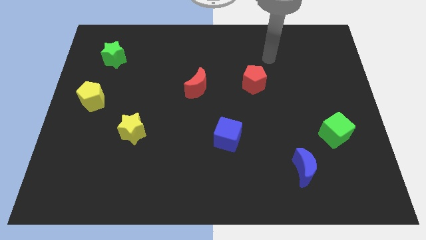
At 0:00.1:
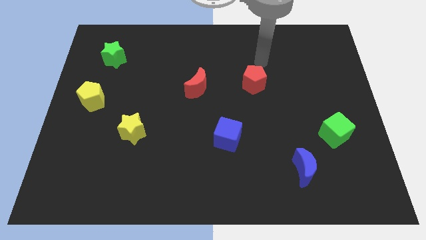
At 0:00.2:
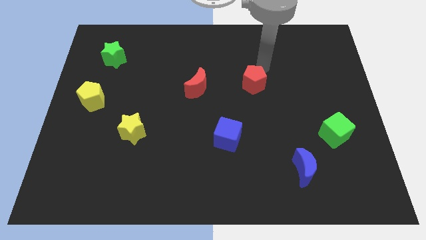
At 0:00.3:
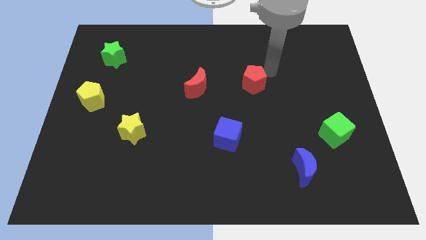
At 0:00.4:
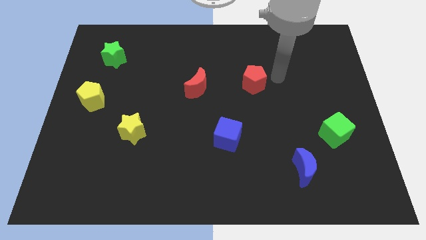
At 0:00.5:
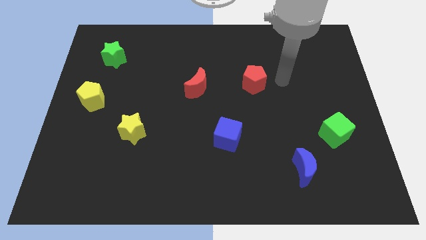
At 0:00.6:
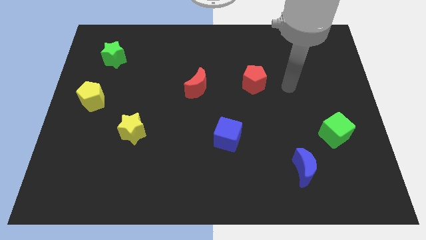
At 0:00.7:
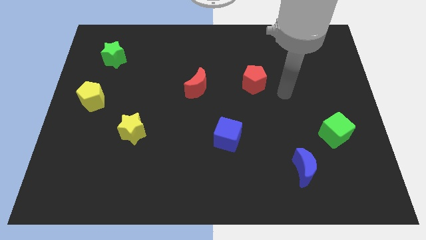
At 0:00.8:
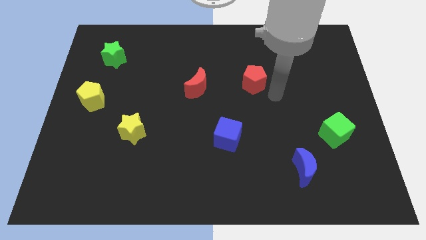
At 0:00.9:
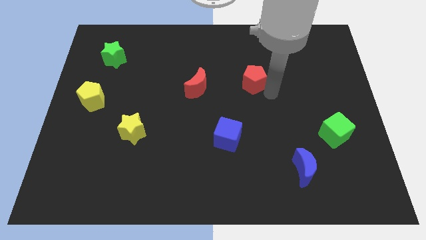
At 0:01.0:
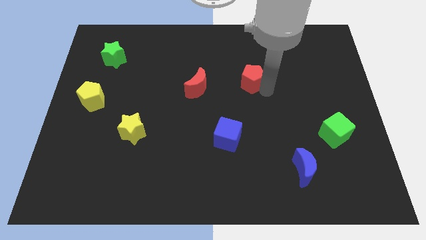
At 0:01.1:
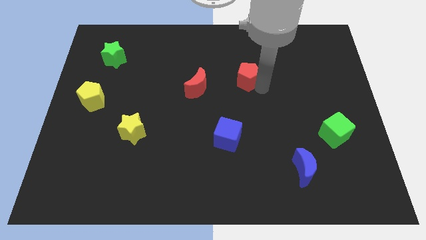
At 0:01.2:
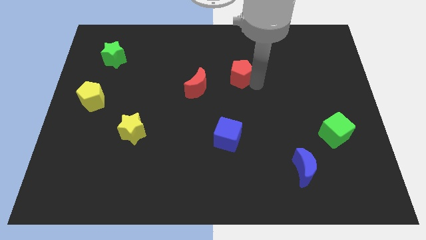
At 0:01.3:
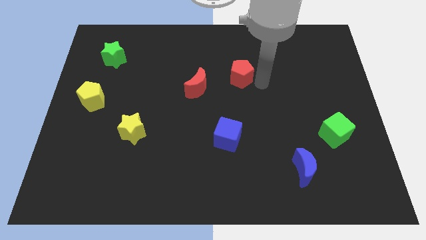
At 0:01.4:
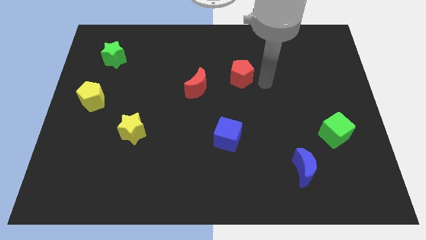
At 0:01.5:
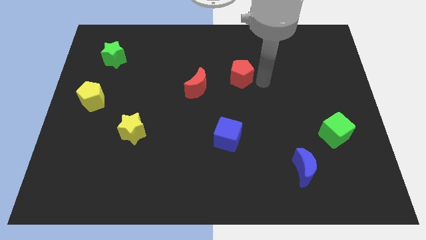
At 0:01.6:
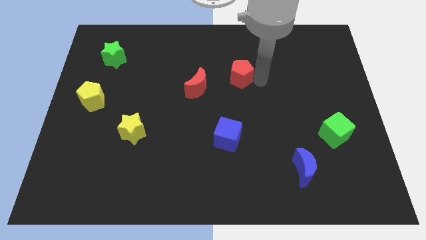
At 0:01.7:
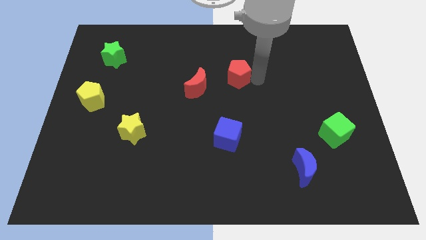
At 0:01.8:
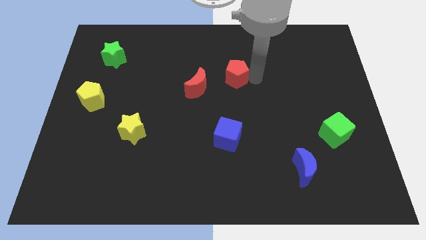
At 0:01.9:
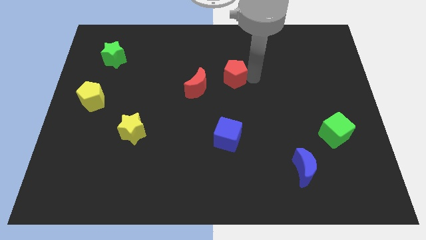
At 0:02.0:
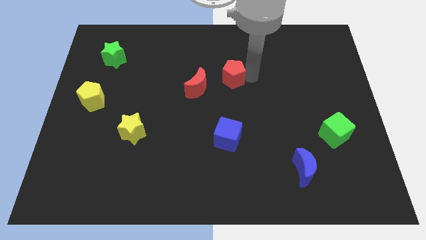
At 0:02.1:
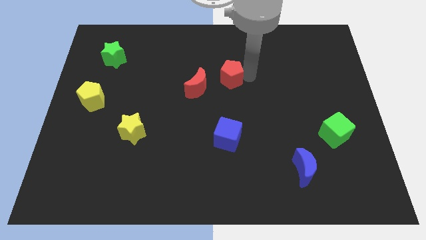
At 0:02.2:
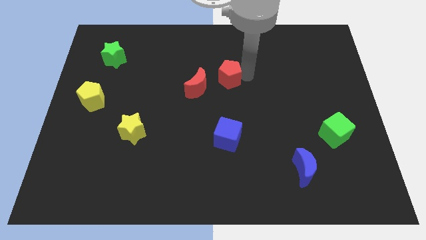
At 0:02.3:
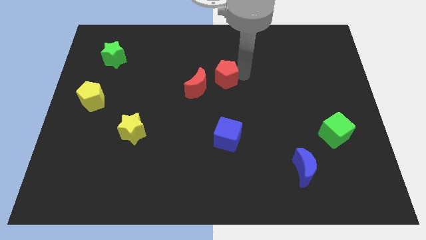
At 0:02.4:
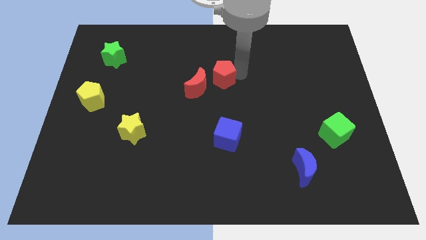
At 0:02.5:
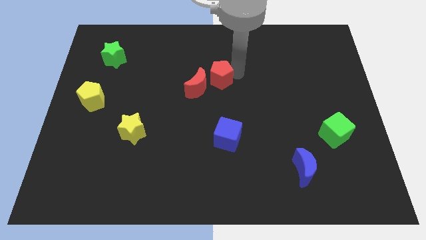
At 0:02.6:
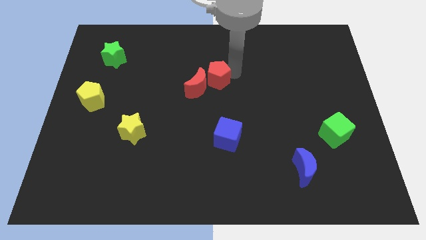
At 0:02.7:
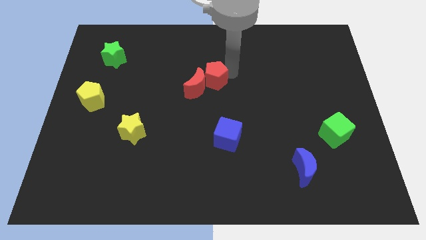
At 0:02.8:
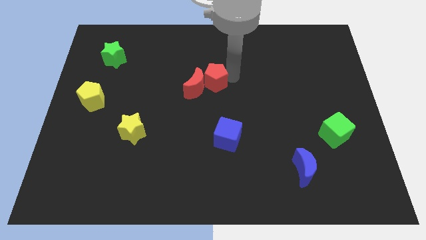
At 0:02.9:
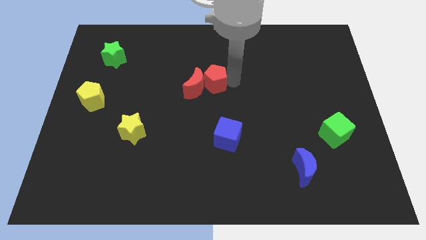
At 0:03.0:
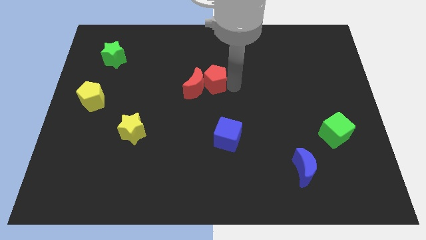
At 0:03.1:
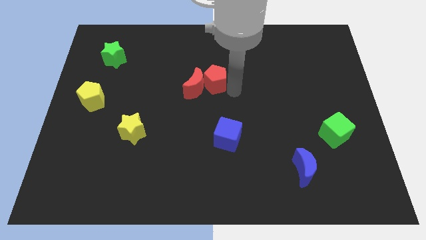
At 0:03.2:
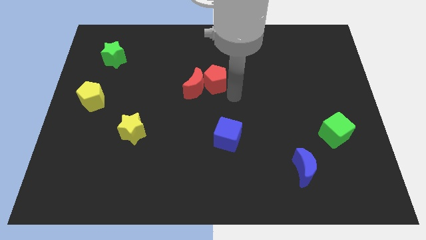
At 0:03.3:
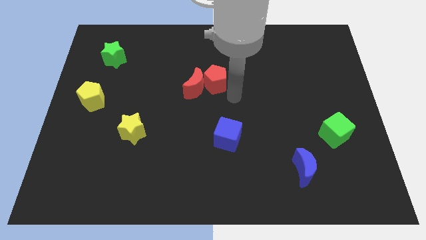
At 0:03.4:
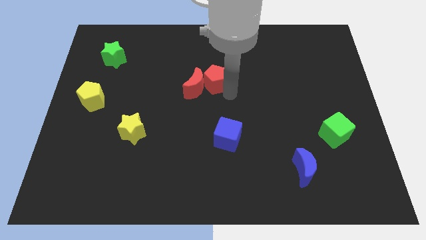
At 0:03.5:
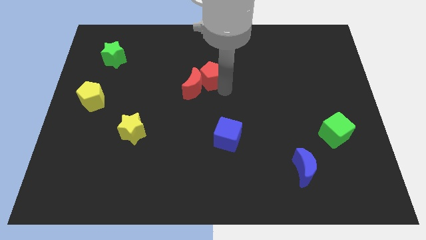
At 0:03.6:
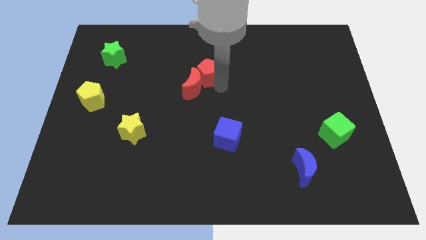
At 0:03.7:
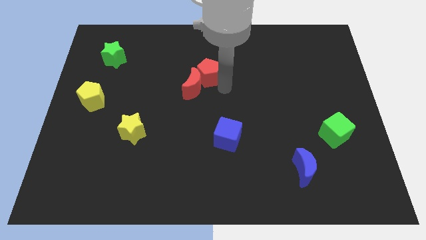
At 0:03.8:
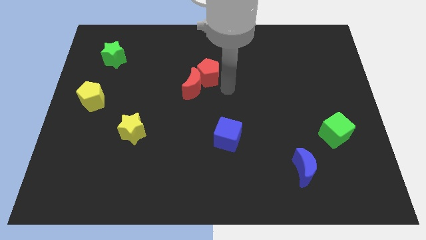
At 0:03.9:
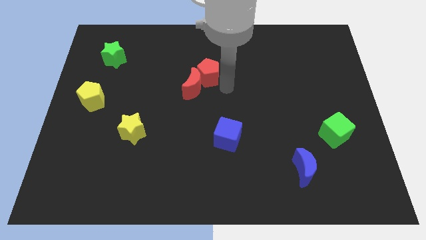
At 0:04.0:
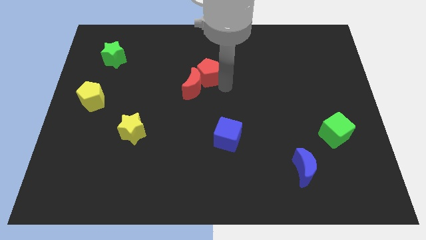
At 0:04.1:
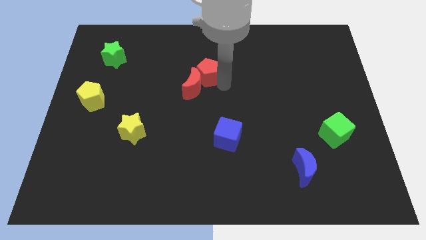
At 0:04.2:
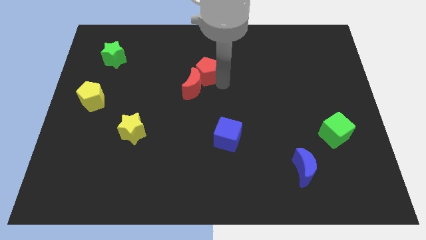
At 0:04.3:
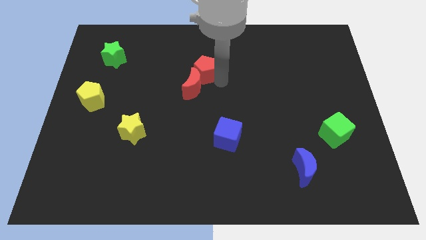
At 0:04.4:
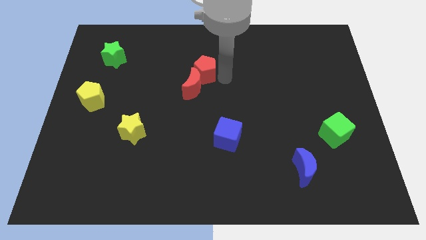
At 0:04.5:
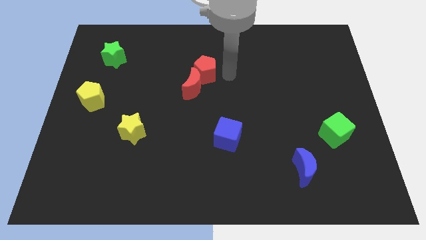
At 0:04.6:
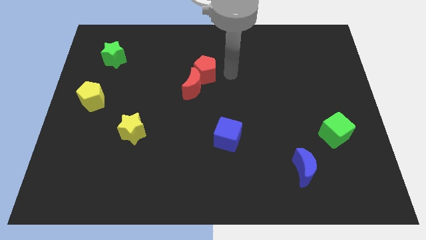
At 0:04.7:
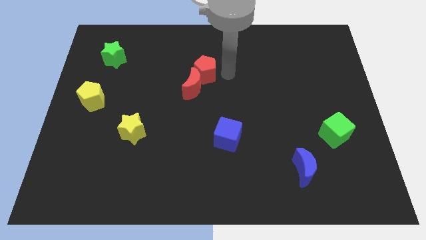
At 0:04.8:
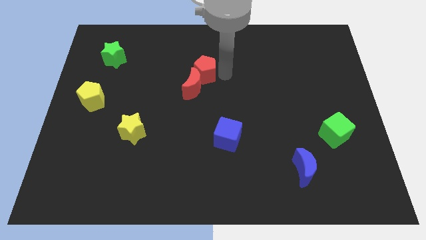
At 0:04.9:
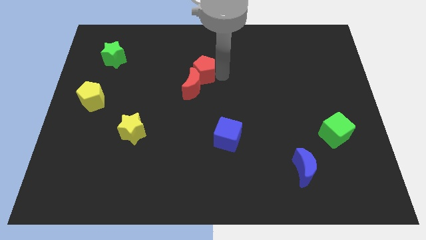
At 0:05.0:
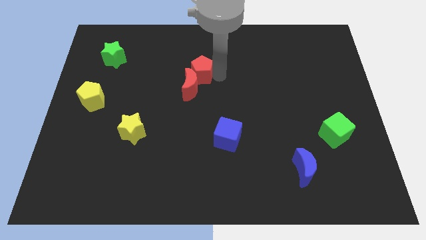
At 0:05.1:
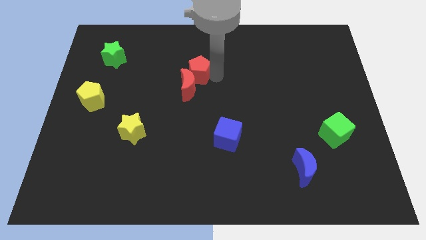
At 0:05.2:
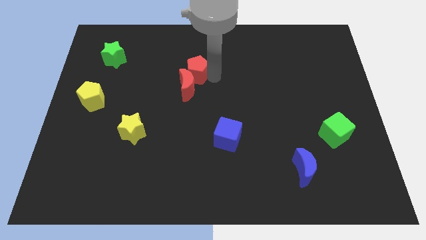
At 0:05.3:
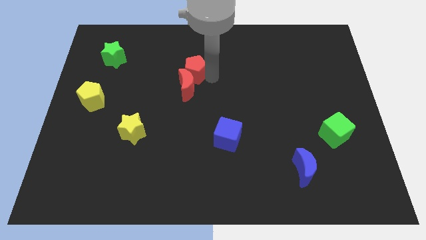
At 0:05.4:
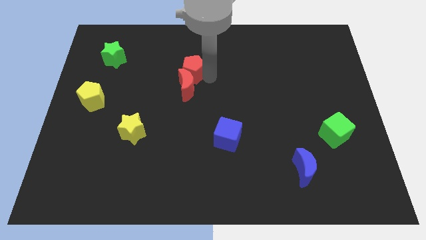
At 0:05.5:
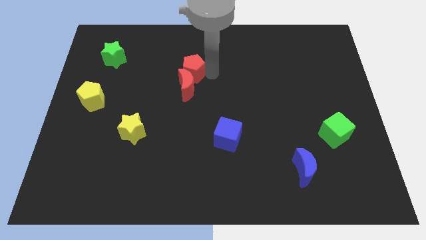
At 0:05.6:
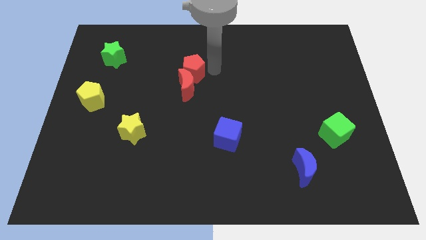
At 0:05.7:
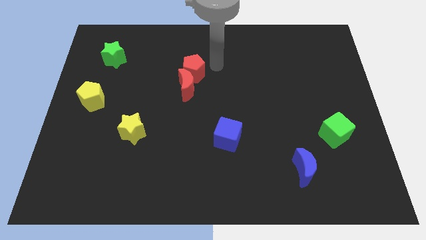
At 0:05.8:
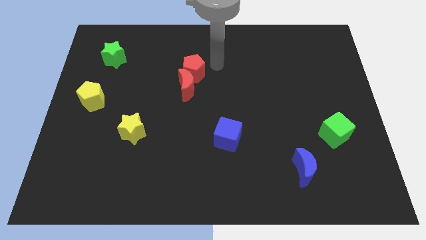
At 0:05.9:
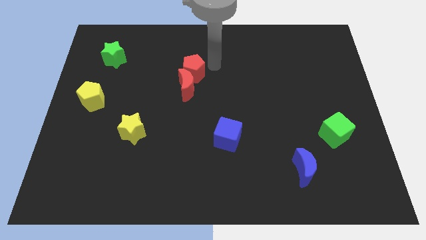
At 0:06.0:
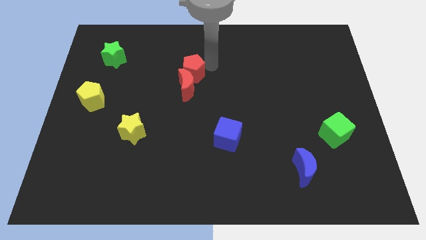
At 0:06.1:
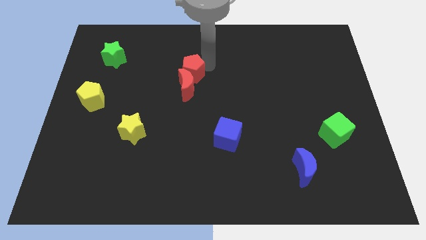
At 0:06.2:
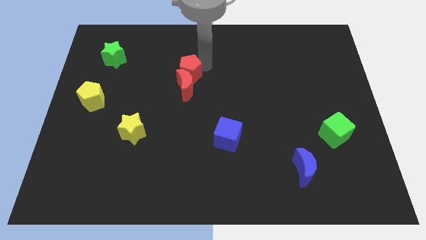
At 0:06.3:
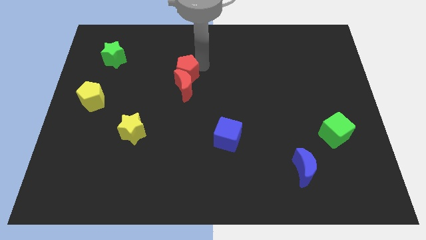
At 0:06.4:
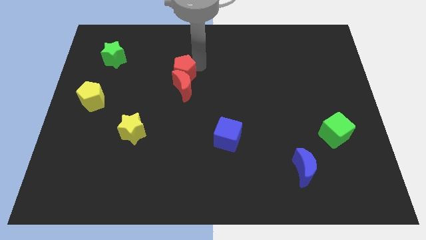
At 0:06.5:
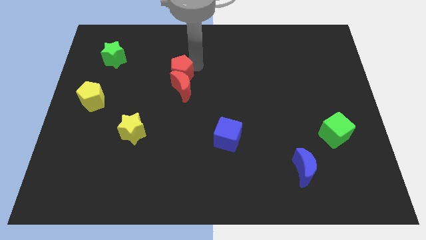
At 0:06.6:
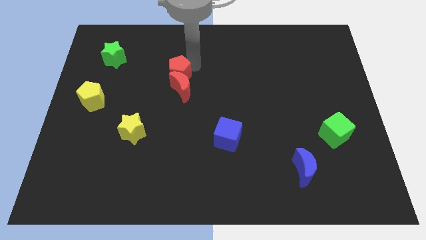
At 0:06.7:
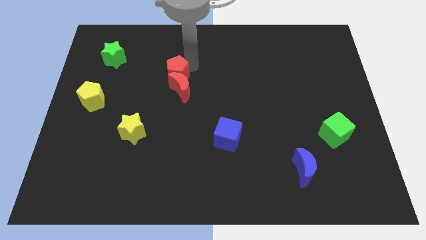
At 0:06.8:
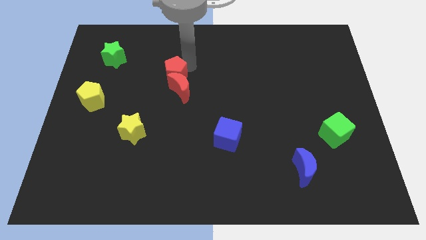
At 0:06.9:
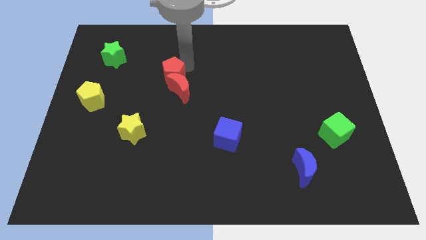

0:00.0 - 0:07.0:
slide the red pentagon left

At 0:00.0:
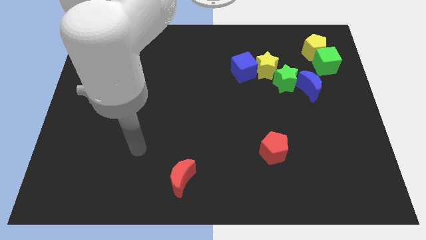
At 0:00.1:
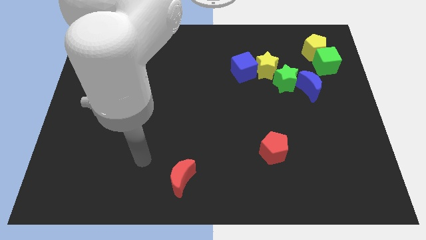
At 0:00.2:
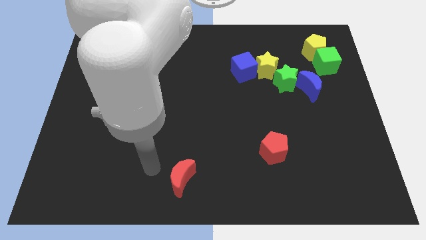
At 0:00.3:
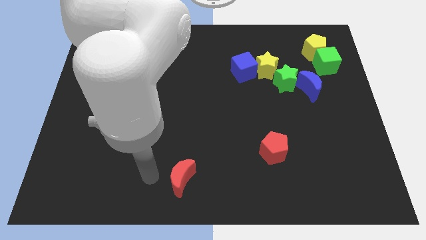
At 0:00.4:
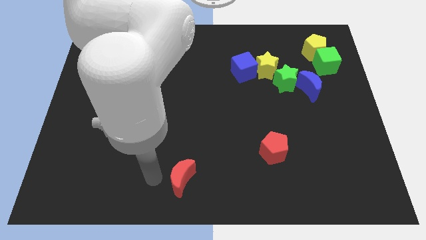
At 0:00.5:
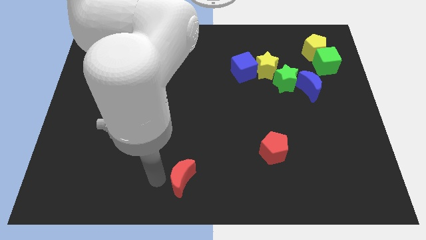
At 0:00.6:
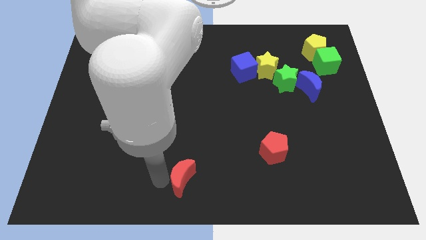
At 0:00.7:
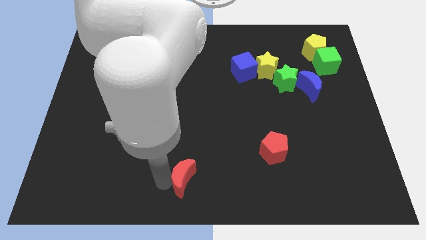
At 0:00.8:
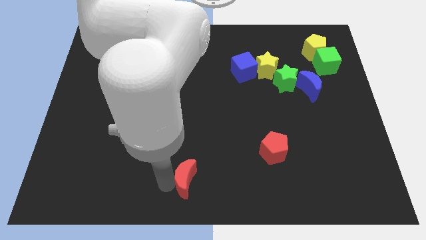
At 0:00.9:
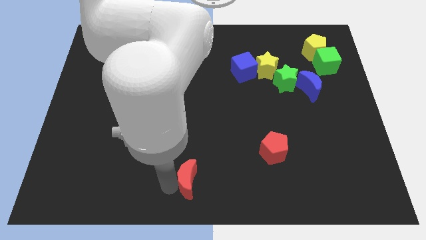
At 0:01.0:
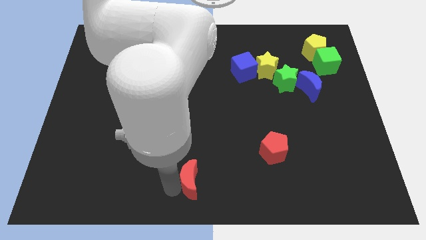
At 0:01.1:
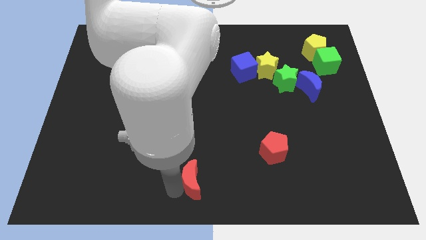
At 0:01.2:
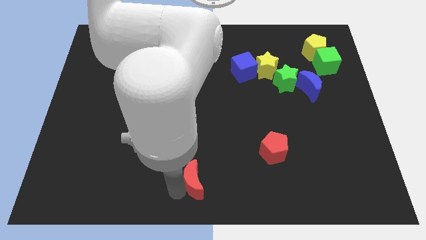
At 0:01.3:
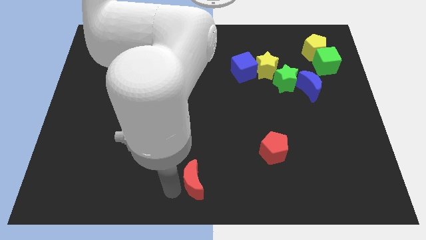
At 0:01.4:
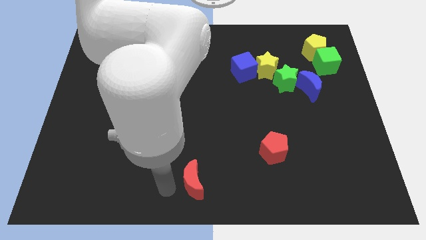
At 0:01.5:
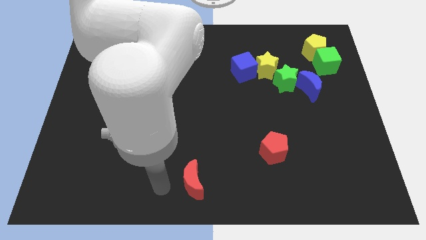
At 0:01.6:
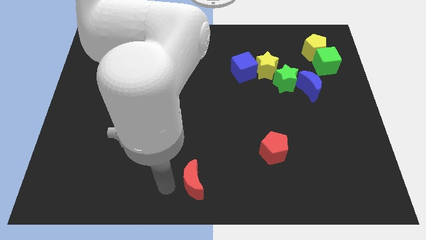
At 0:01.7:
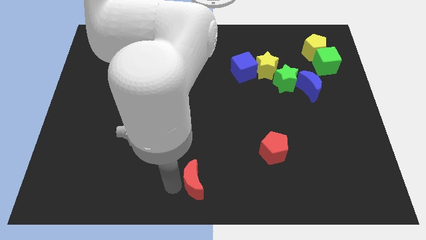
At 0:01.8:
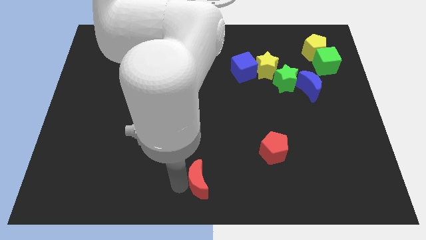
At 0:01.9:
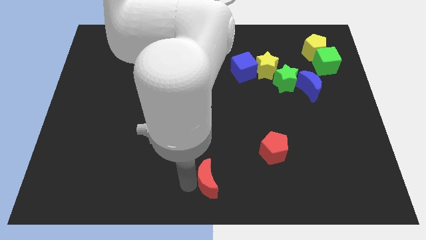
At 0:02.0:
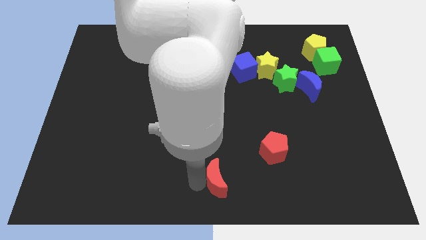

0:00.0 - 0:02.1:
move the red moon somewhat to the right
